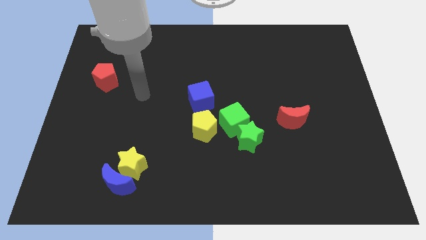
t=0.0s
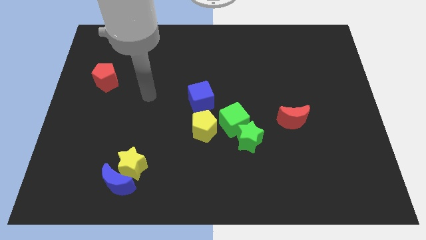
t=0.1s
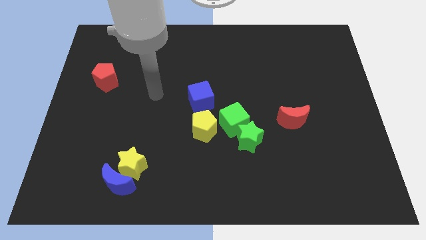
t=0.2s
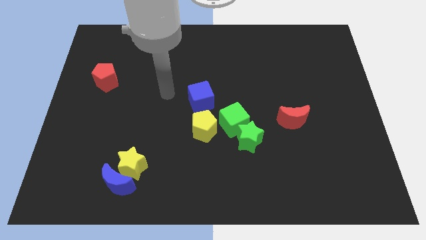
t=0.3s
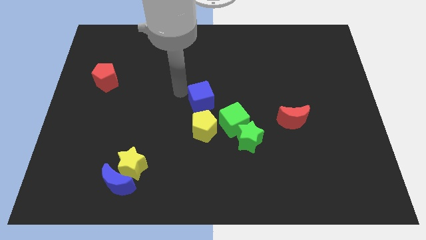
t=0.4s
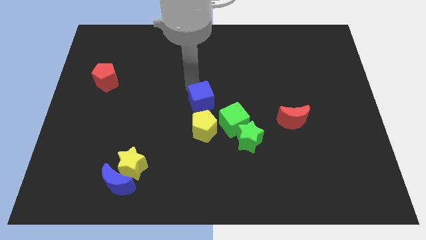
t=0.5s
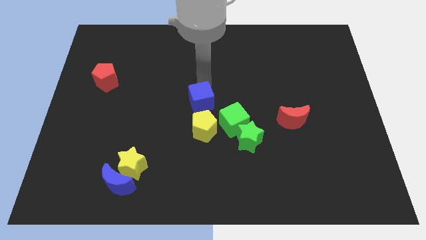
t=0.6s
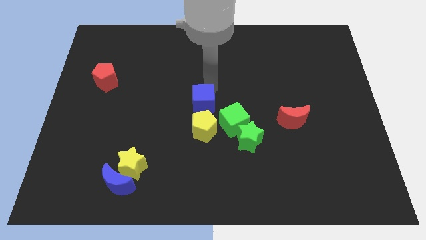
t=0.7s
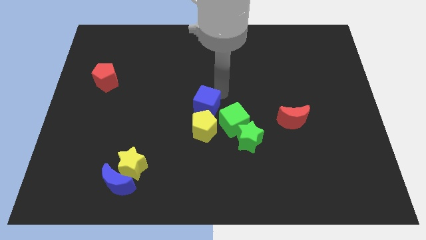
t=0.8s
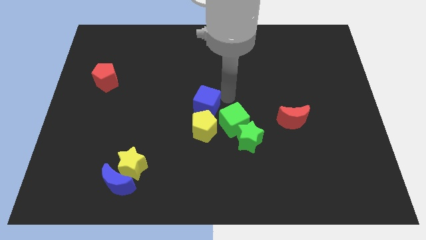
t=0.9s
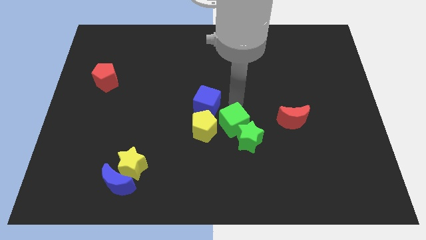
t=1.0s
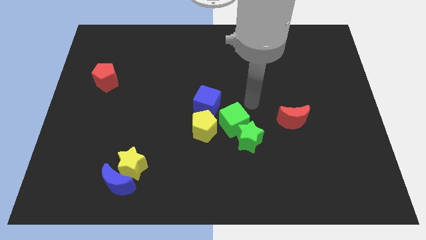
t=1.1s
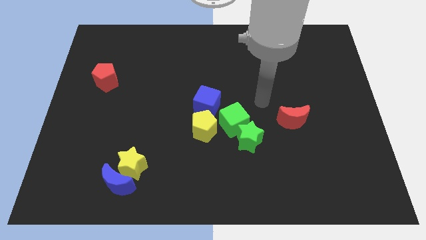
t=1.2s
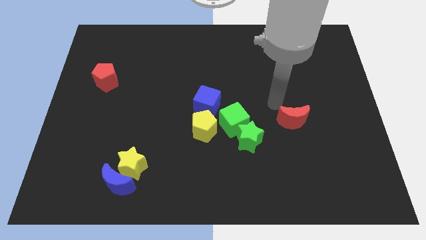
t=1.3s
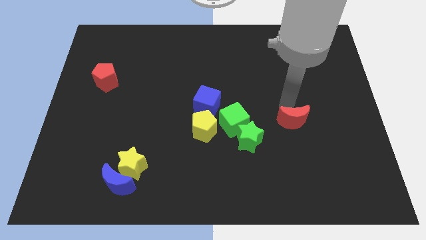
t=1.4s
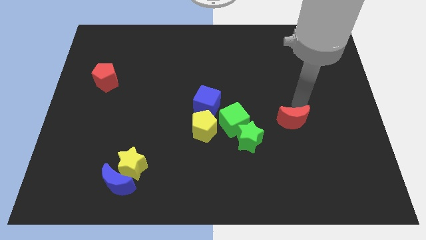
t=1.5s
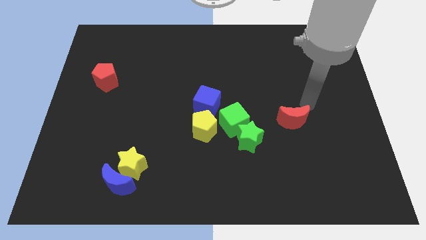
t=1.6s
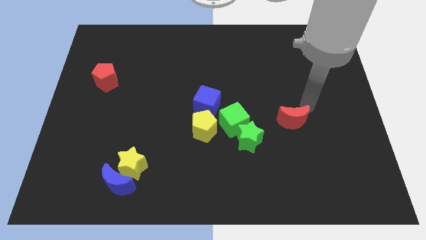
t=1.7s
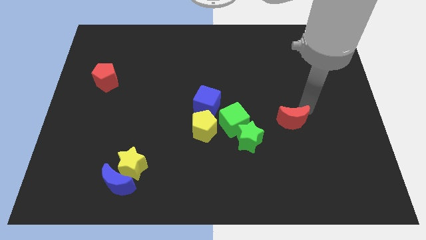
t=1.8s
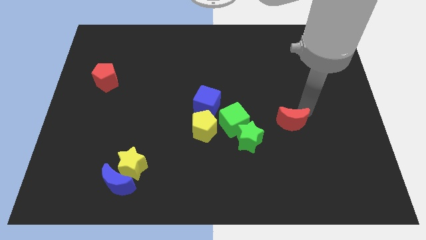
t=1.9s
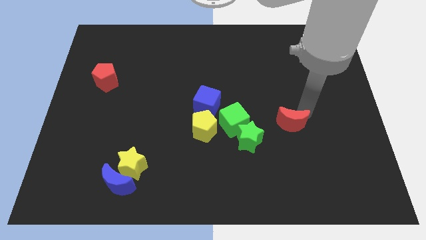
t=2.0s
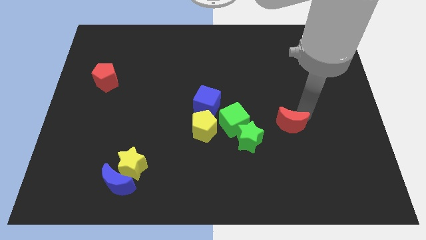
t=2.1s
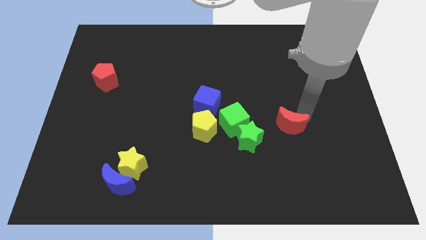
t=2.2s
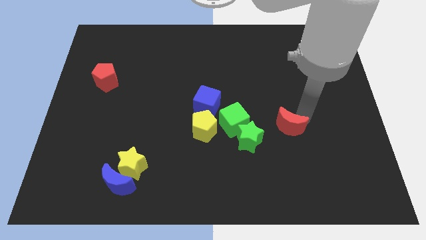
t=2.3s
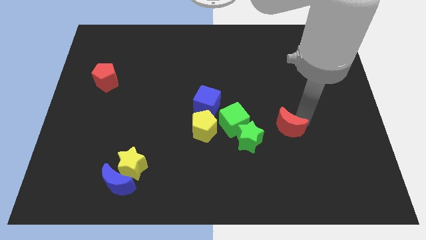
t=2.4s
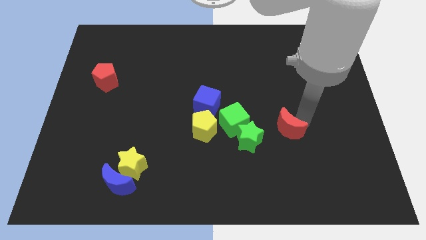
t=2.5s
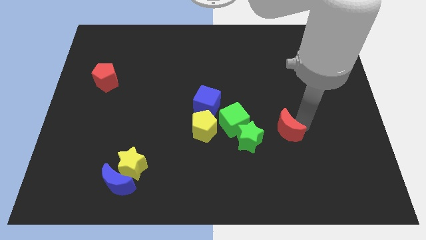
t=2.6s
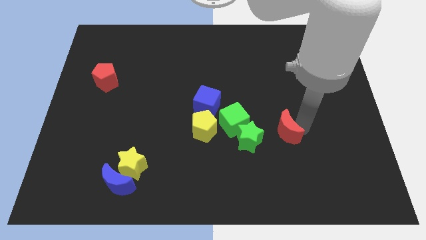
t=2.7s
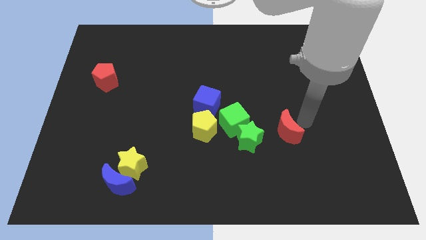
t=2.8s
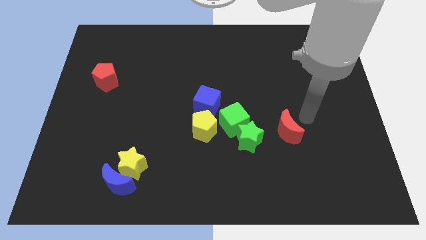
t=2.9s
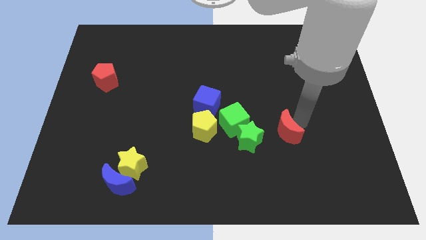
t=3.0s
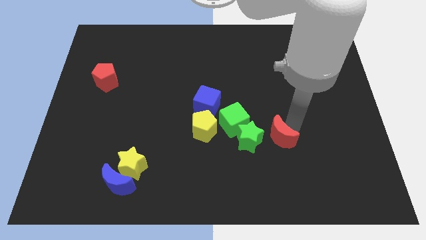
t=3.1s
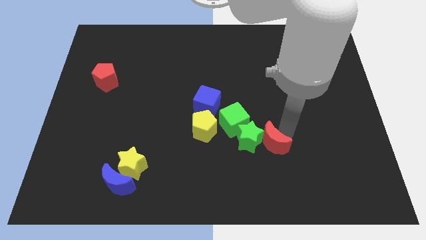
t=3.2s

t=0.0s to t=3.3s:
move the red moon downwards and then to the left a bit

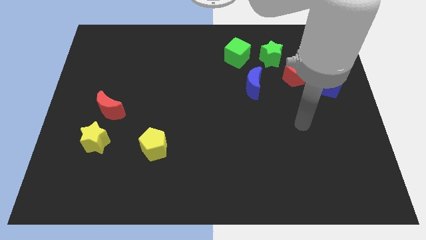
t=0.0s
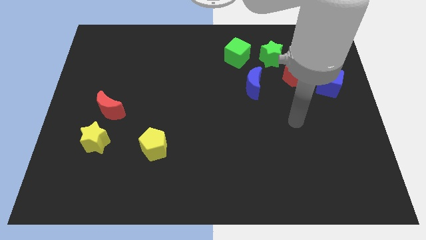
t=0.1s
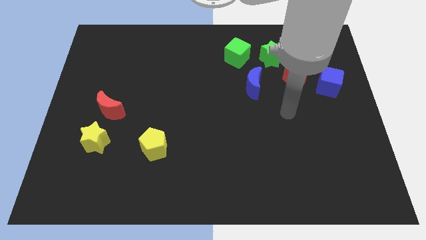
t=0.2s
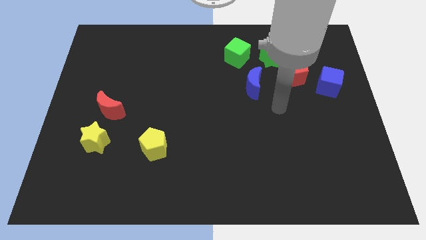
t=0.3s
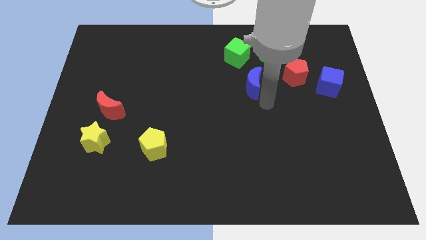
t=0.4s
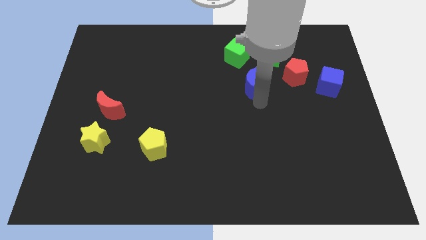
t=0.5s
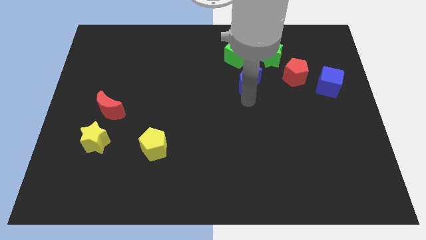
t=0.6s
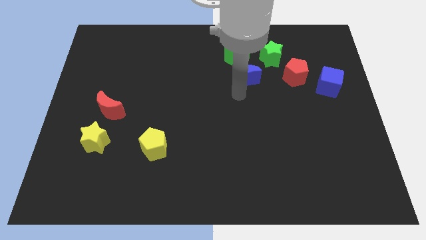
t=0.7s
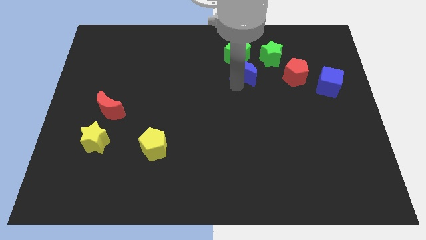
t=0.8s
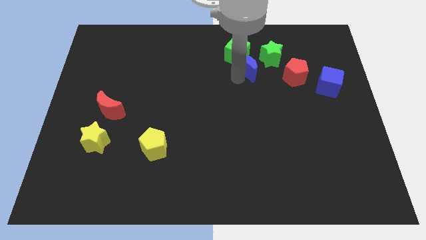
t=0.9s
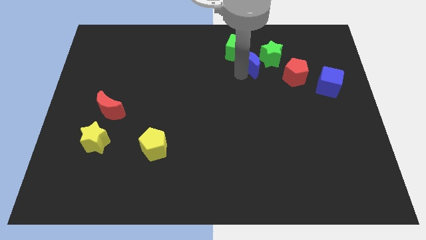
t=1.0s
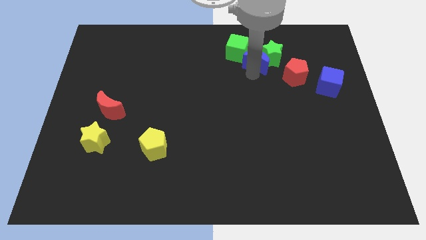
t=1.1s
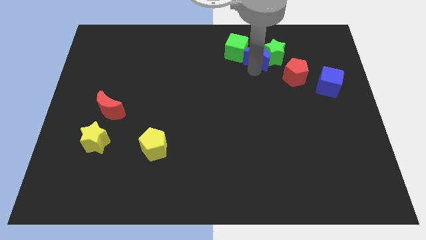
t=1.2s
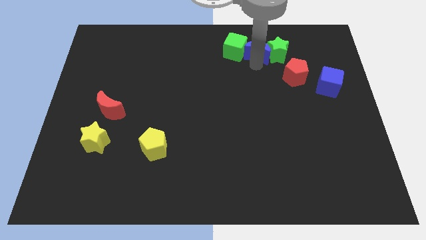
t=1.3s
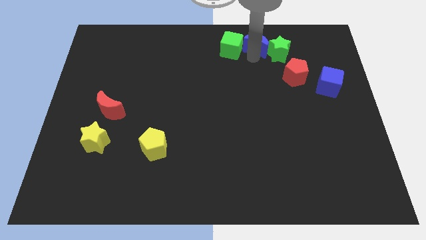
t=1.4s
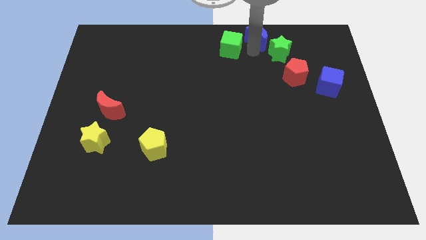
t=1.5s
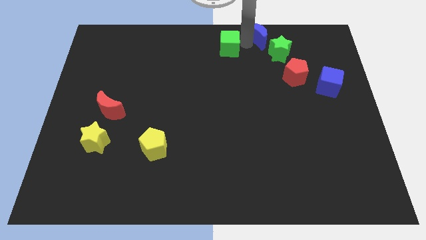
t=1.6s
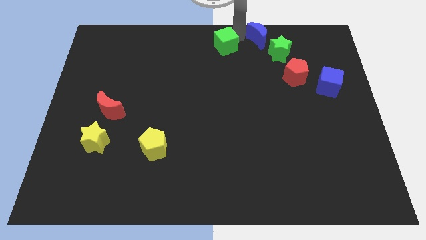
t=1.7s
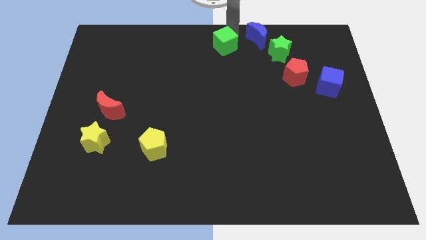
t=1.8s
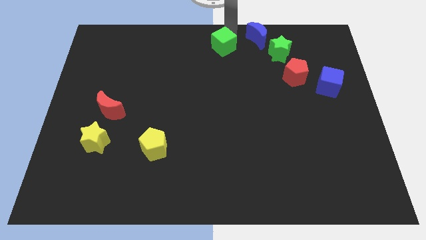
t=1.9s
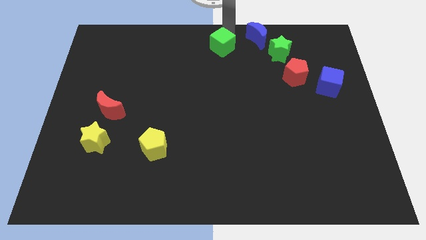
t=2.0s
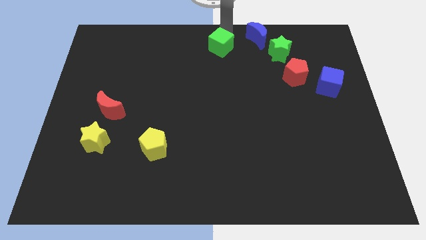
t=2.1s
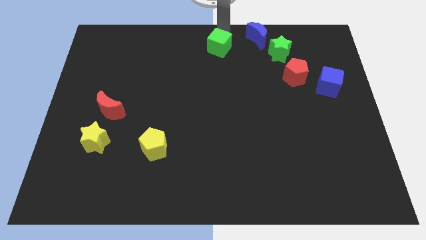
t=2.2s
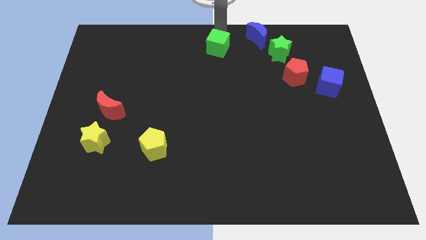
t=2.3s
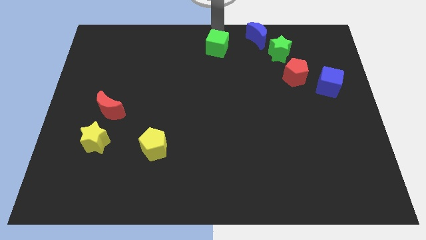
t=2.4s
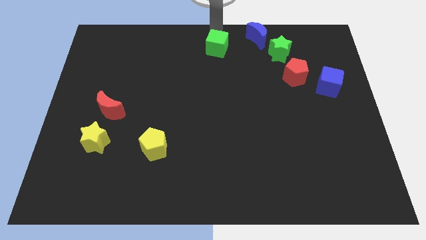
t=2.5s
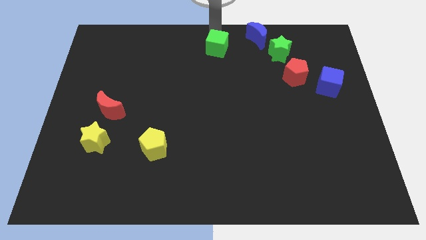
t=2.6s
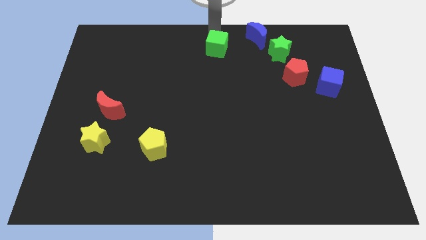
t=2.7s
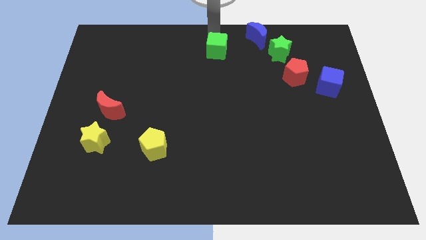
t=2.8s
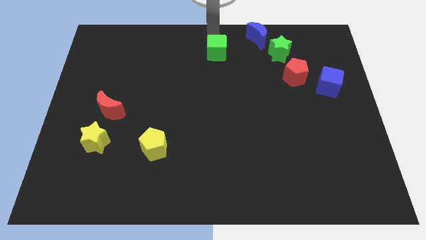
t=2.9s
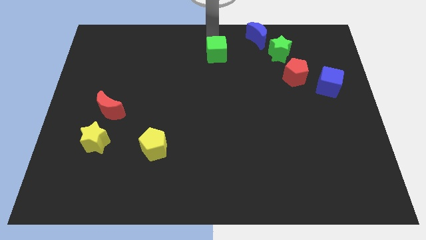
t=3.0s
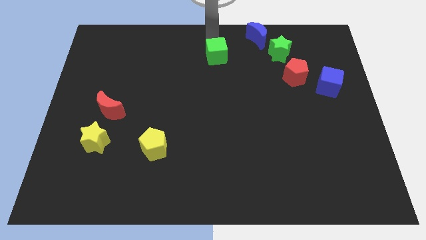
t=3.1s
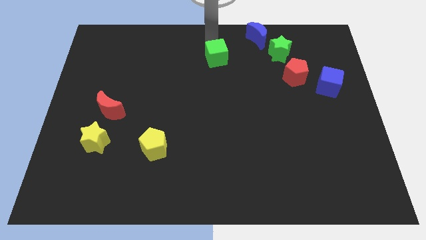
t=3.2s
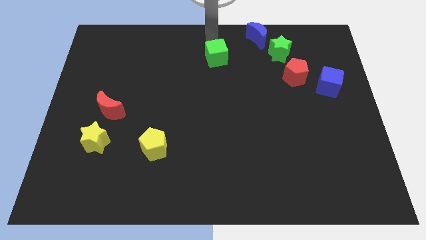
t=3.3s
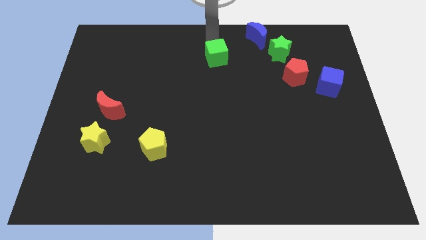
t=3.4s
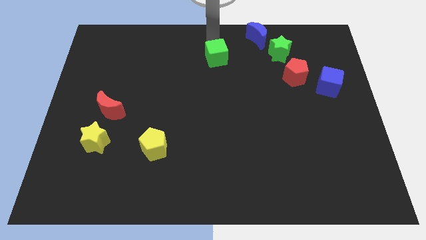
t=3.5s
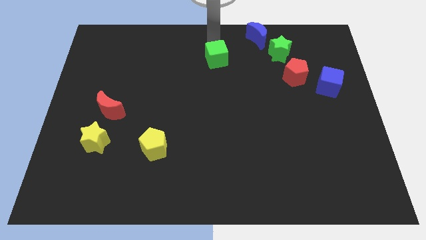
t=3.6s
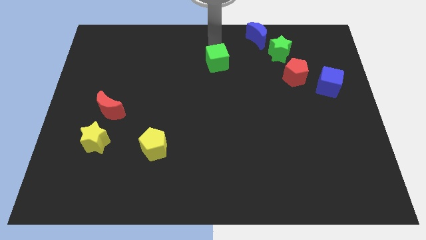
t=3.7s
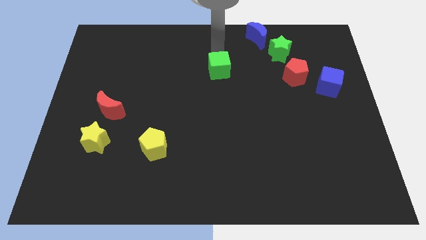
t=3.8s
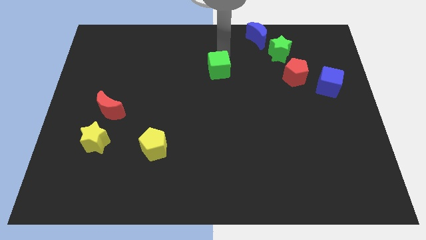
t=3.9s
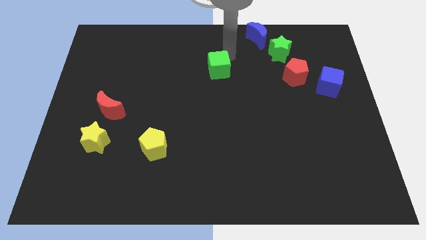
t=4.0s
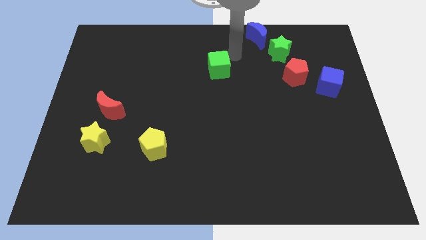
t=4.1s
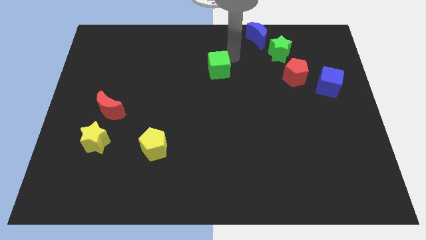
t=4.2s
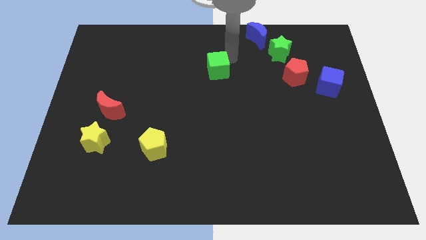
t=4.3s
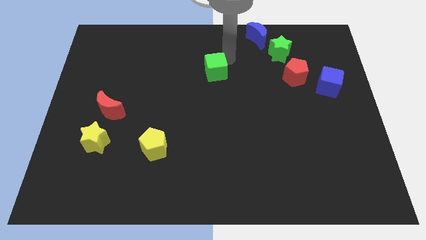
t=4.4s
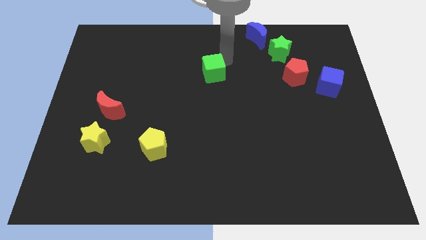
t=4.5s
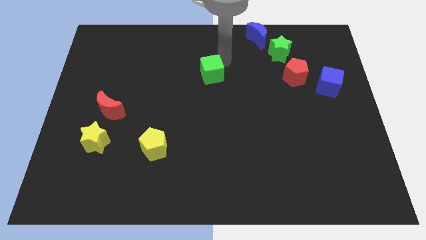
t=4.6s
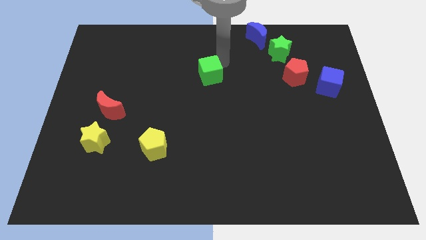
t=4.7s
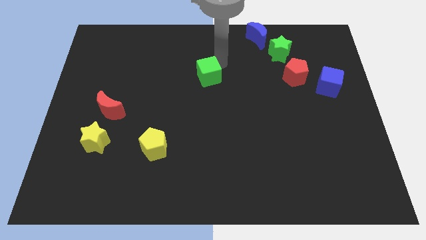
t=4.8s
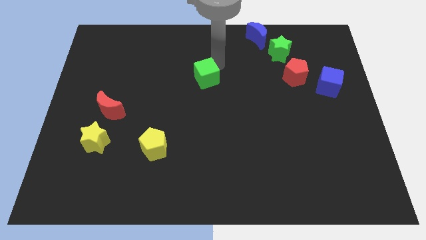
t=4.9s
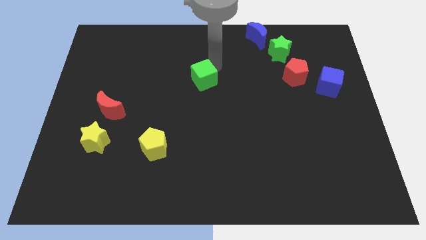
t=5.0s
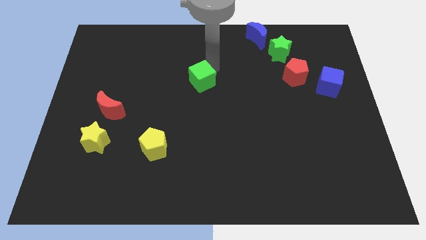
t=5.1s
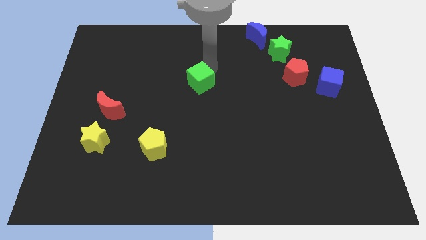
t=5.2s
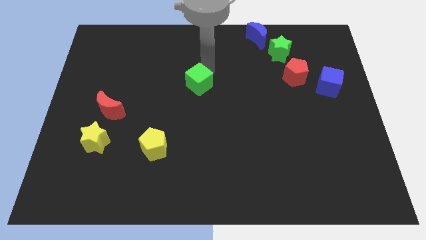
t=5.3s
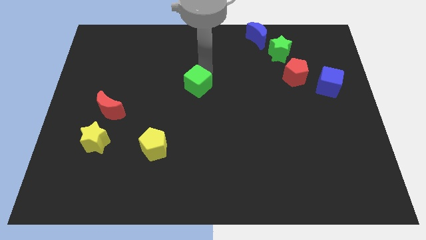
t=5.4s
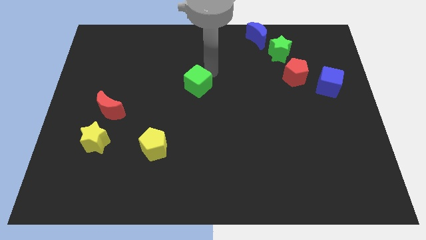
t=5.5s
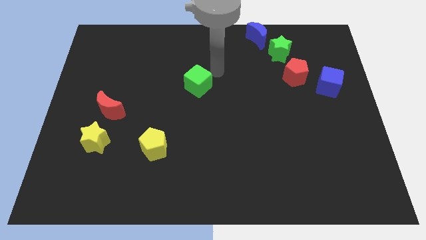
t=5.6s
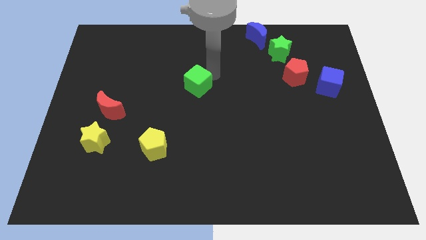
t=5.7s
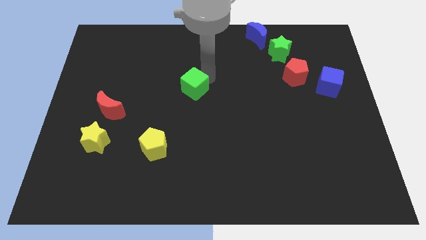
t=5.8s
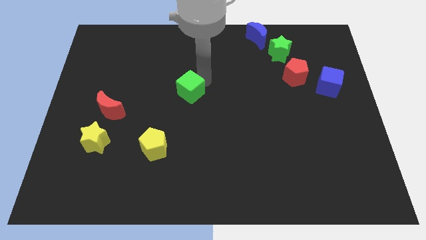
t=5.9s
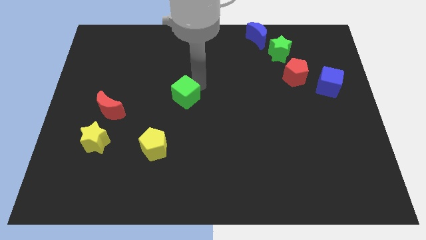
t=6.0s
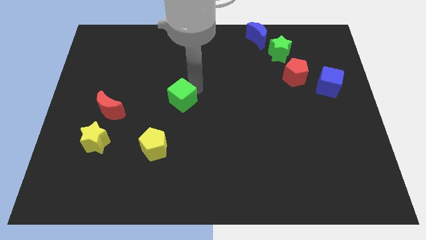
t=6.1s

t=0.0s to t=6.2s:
slide the green cube down and to the left diagonally
